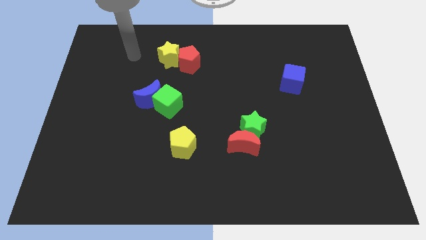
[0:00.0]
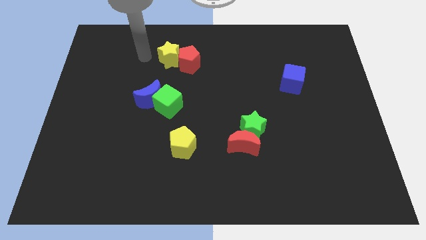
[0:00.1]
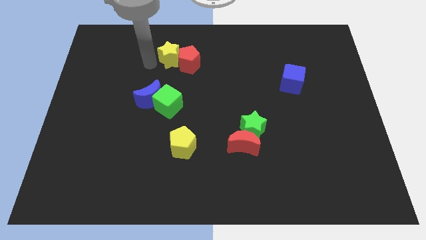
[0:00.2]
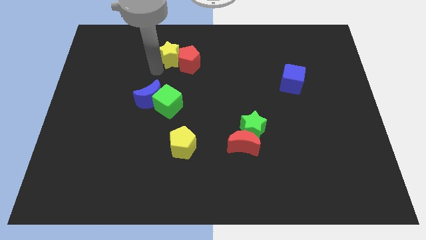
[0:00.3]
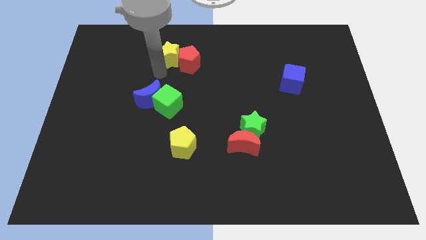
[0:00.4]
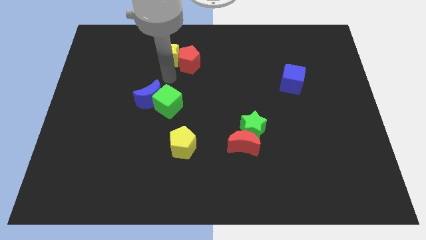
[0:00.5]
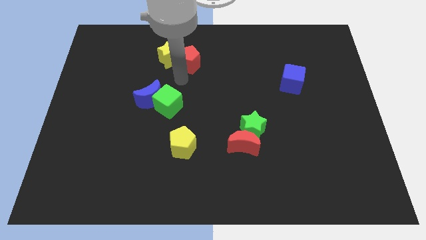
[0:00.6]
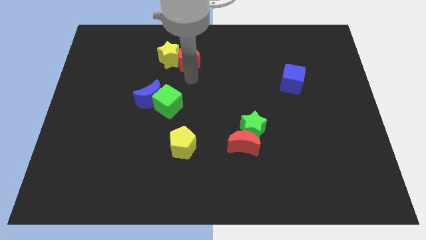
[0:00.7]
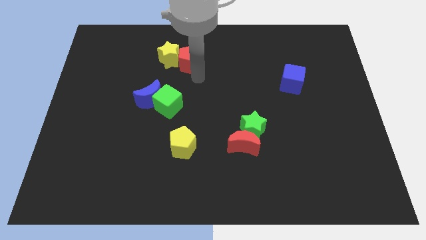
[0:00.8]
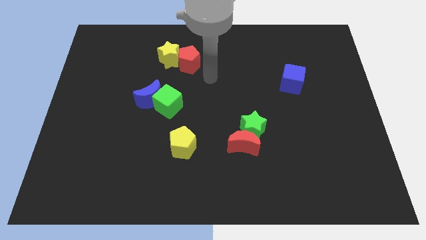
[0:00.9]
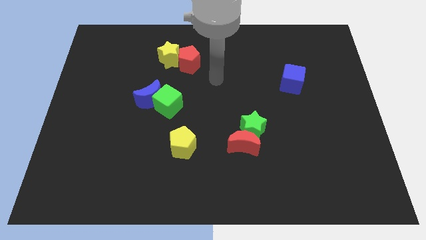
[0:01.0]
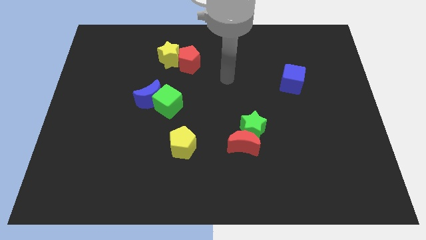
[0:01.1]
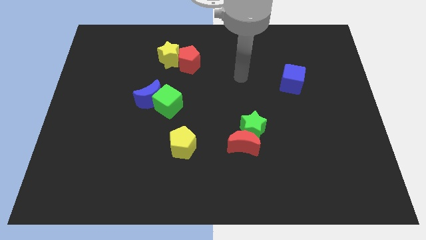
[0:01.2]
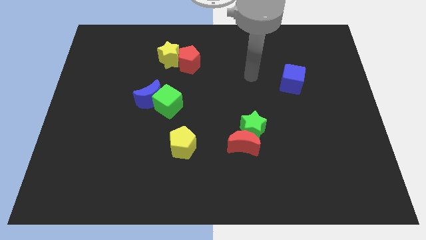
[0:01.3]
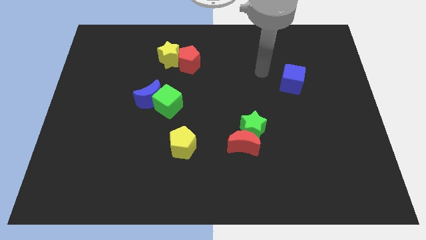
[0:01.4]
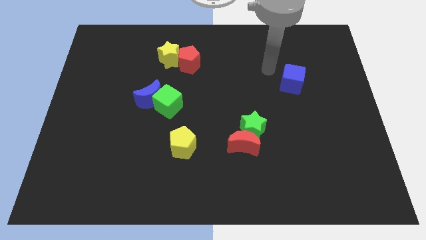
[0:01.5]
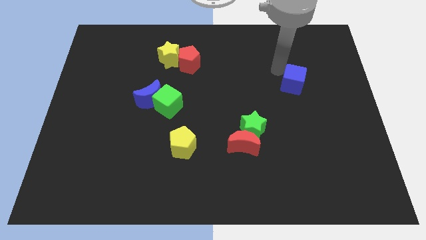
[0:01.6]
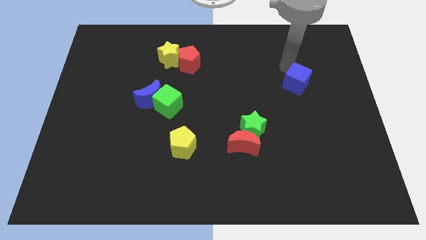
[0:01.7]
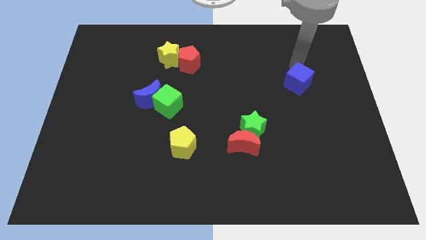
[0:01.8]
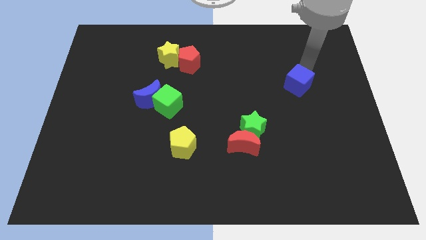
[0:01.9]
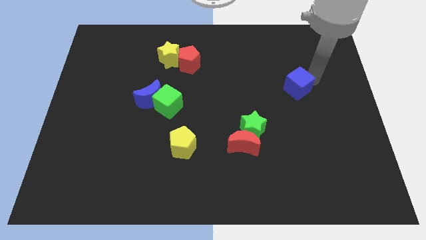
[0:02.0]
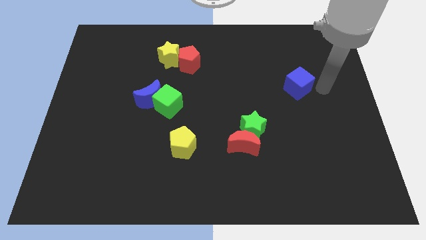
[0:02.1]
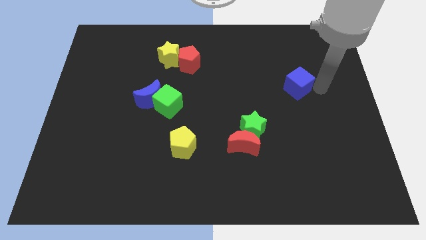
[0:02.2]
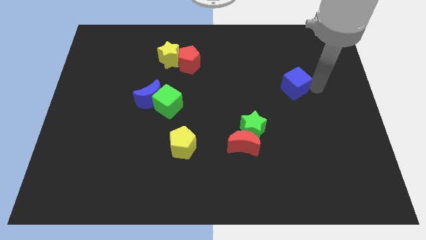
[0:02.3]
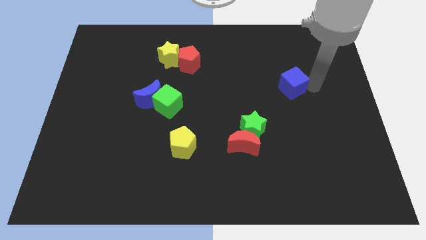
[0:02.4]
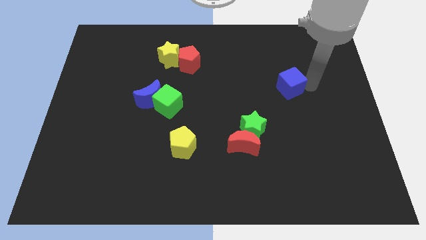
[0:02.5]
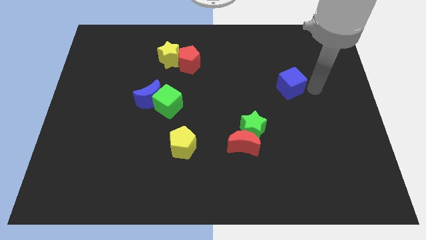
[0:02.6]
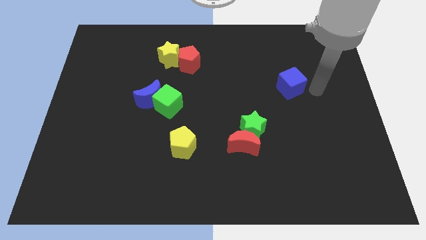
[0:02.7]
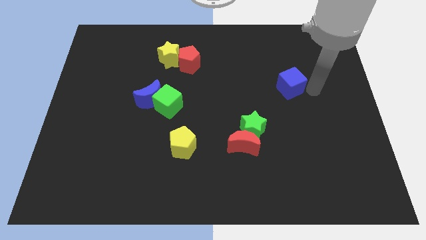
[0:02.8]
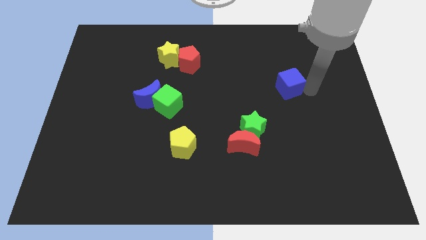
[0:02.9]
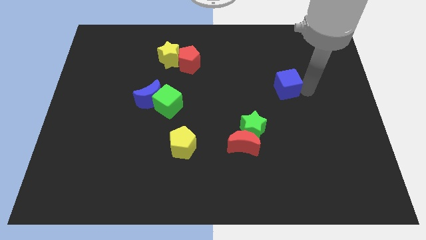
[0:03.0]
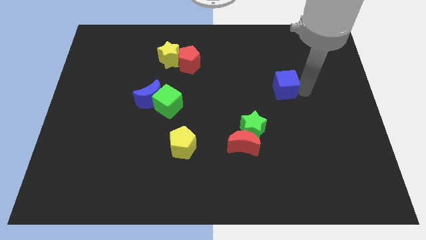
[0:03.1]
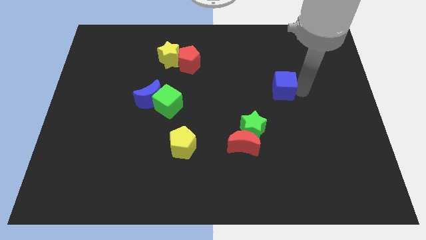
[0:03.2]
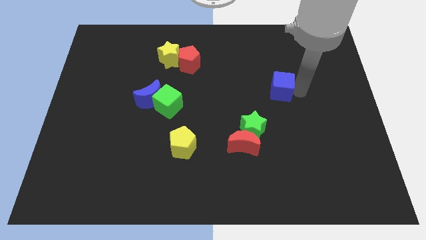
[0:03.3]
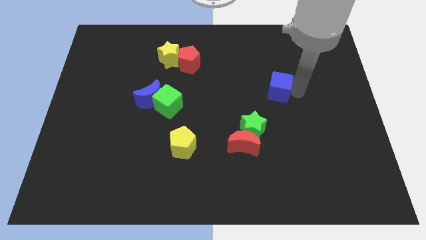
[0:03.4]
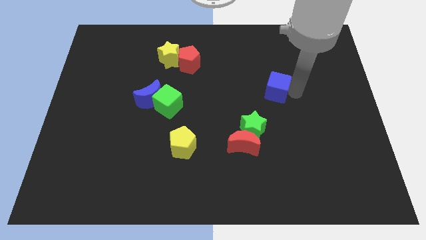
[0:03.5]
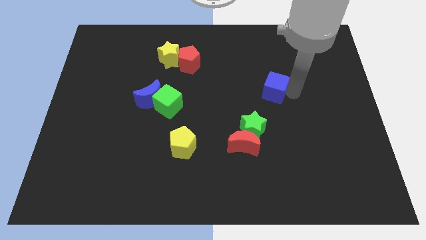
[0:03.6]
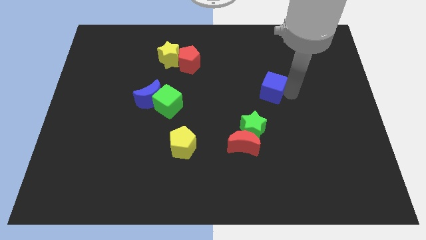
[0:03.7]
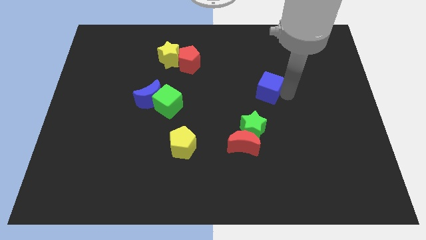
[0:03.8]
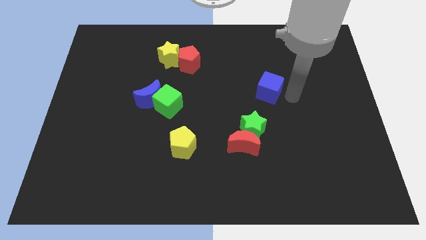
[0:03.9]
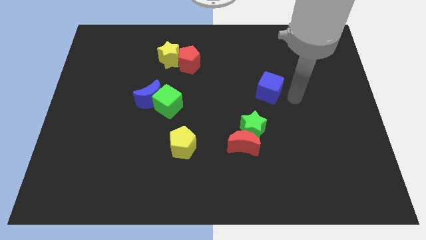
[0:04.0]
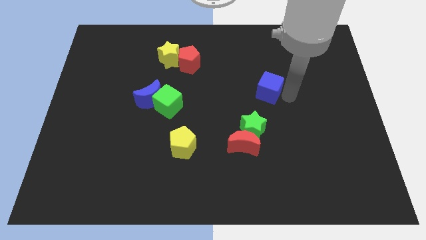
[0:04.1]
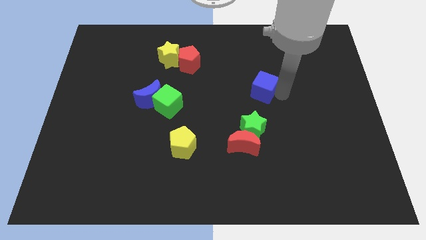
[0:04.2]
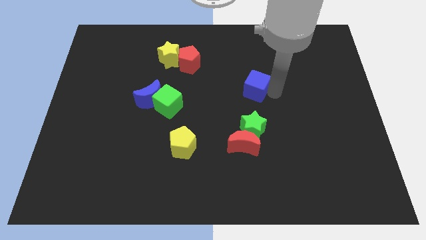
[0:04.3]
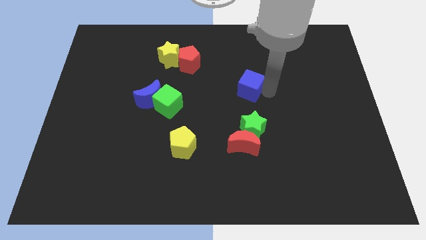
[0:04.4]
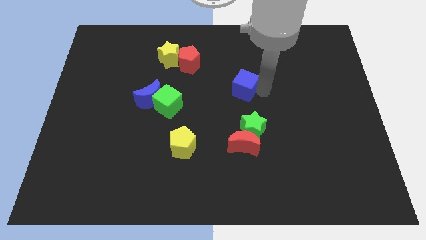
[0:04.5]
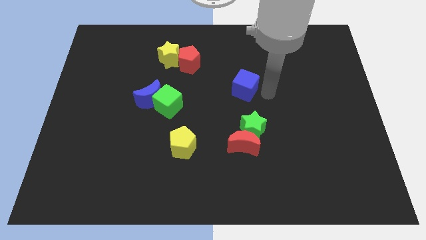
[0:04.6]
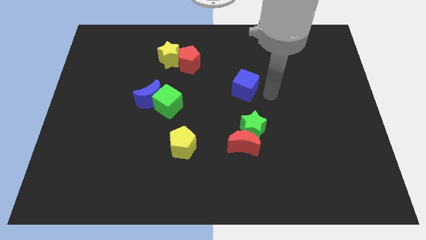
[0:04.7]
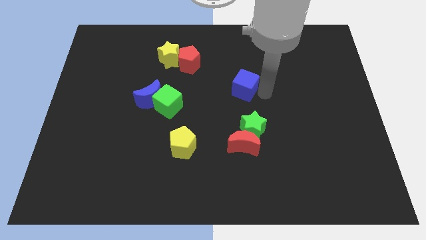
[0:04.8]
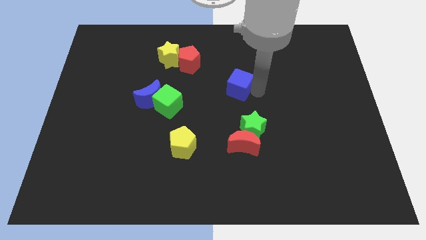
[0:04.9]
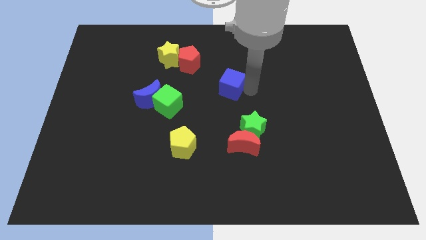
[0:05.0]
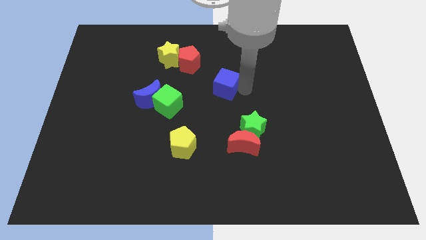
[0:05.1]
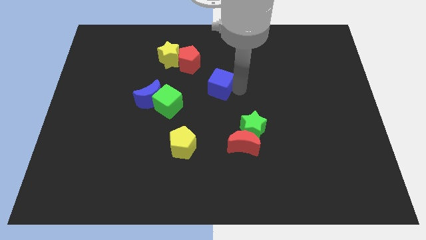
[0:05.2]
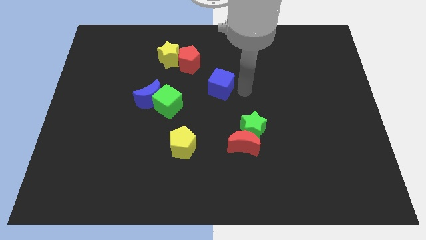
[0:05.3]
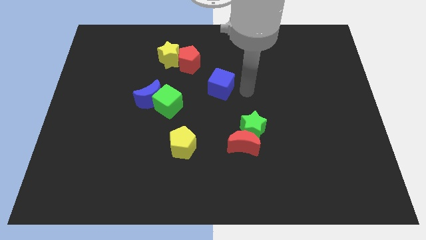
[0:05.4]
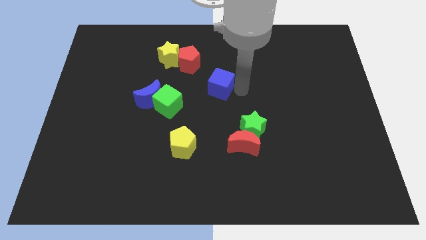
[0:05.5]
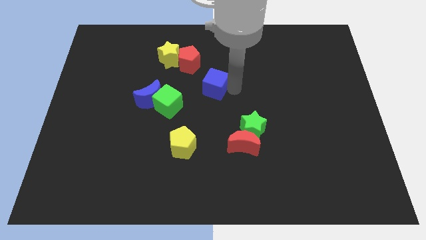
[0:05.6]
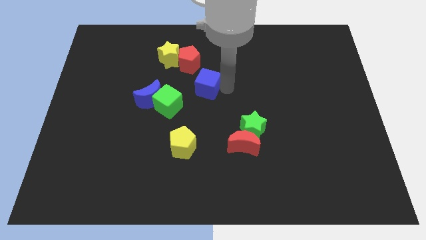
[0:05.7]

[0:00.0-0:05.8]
slide the blue cube to the left

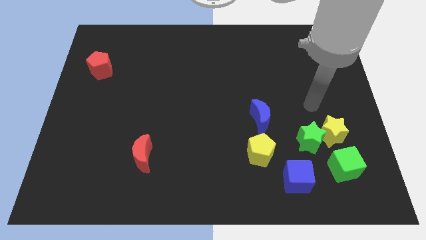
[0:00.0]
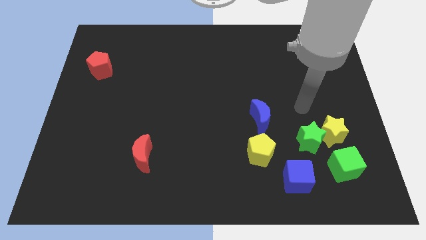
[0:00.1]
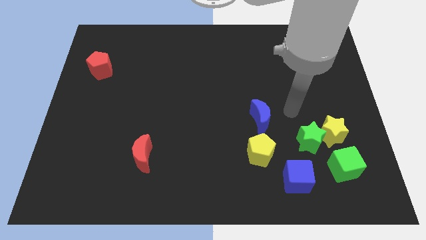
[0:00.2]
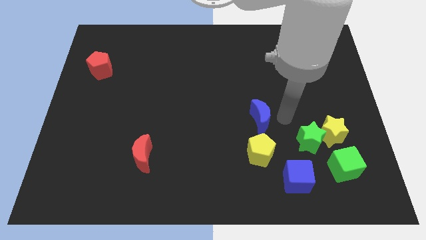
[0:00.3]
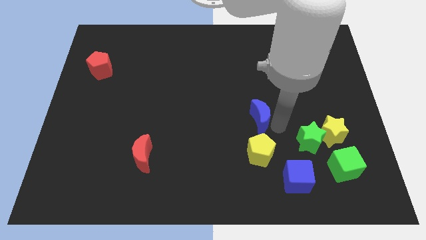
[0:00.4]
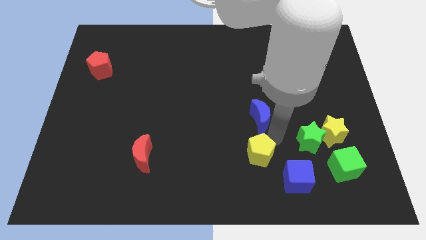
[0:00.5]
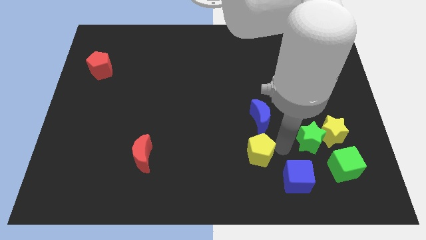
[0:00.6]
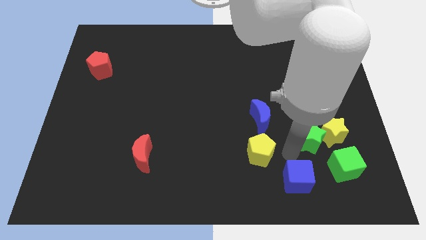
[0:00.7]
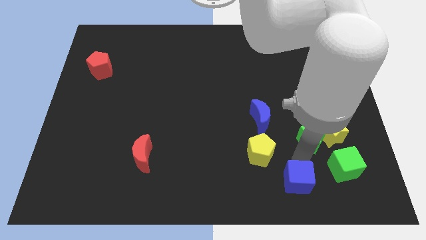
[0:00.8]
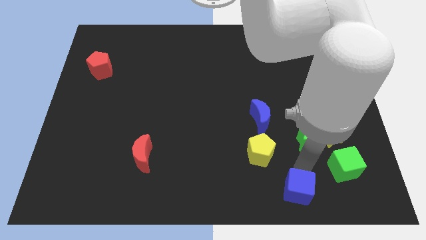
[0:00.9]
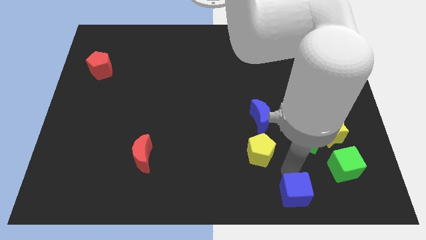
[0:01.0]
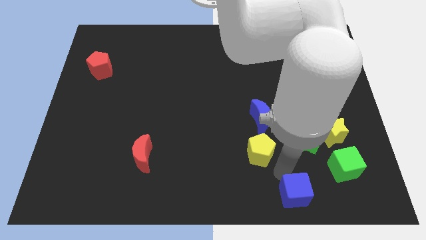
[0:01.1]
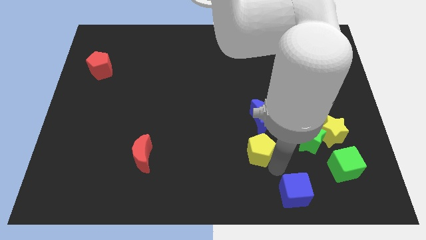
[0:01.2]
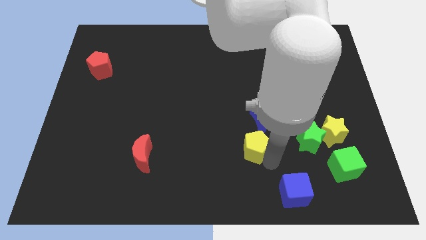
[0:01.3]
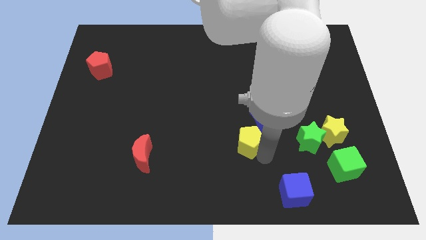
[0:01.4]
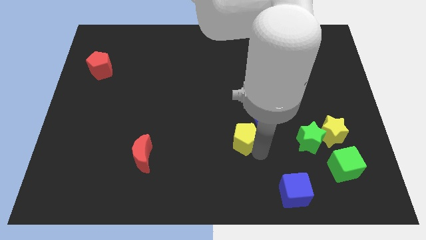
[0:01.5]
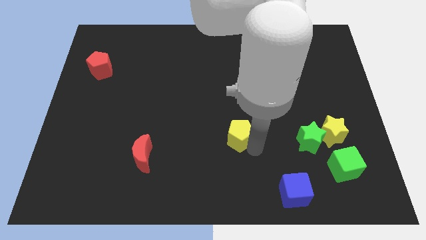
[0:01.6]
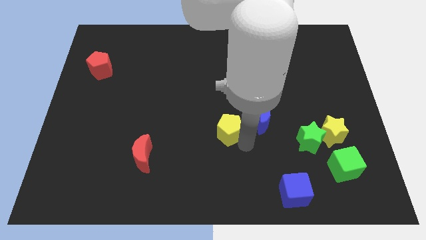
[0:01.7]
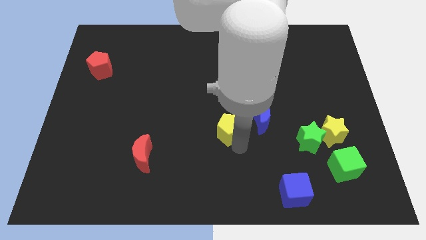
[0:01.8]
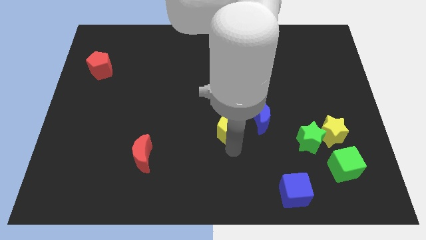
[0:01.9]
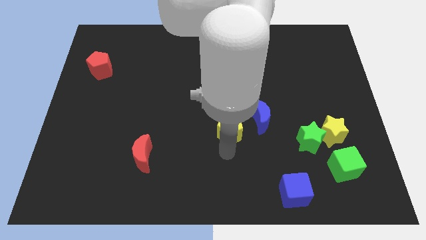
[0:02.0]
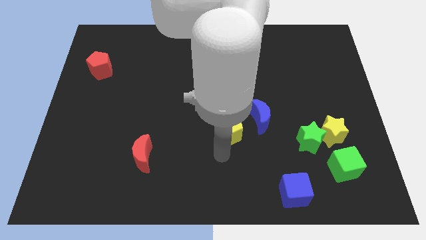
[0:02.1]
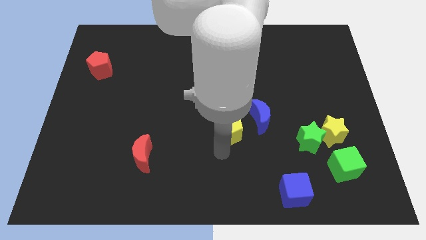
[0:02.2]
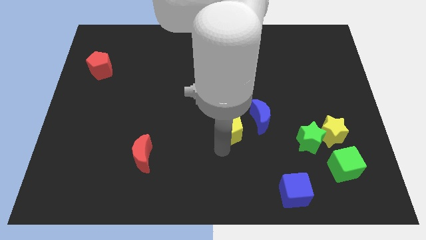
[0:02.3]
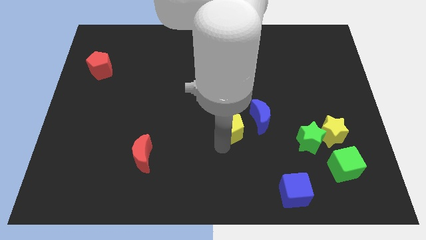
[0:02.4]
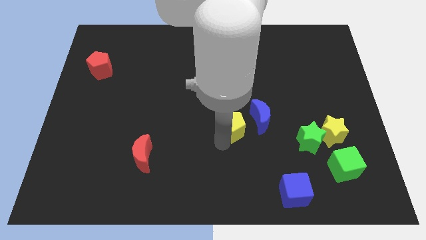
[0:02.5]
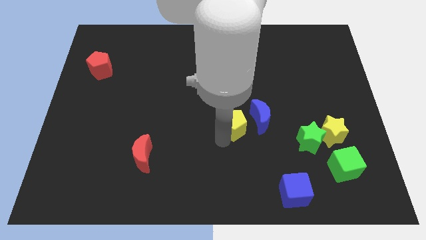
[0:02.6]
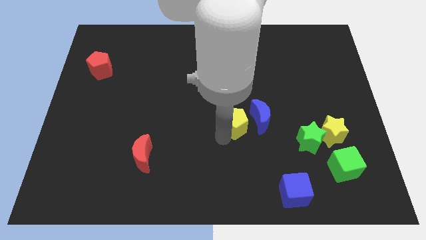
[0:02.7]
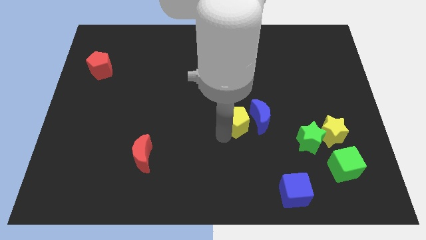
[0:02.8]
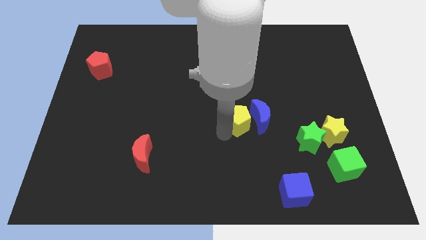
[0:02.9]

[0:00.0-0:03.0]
push the yellow pentagon a bit up
